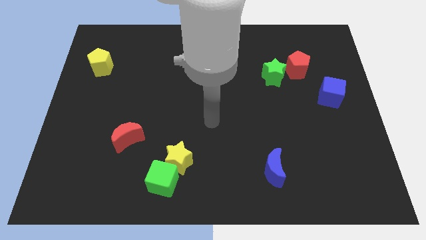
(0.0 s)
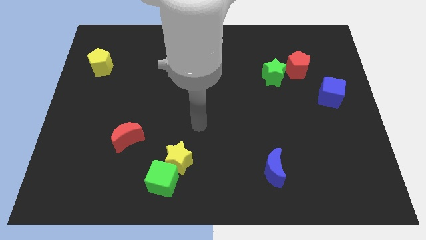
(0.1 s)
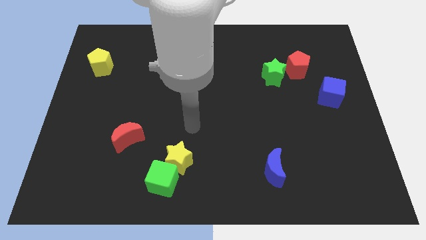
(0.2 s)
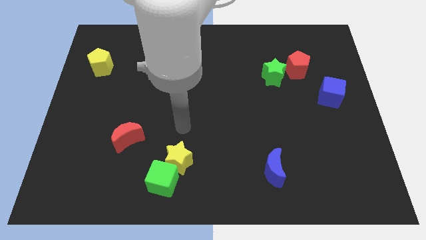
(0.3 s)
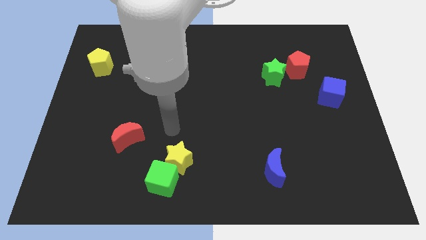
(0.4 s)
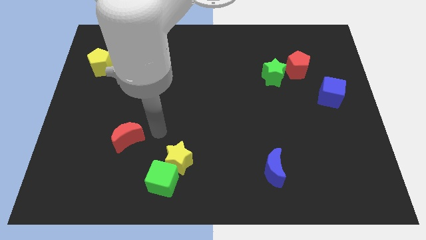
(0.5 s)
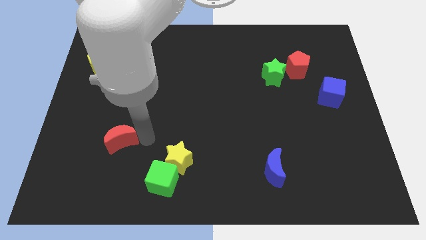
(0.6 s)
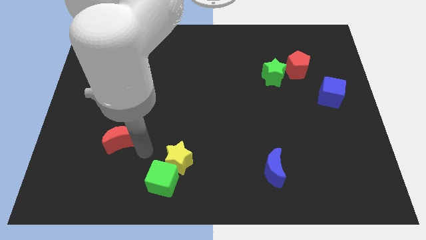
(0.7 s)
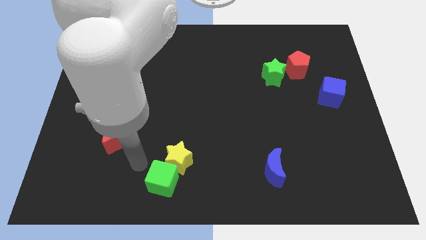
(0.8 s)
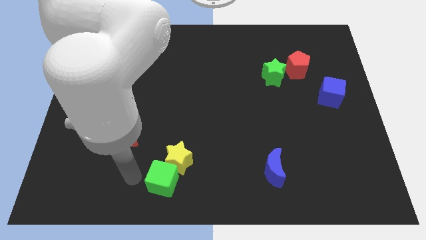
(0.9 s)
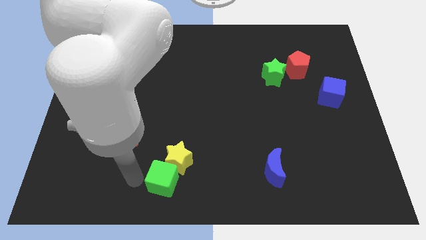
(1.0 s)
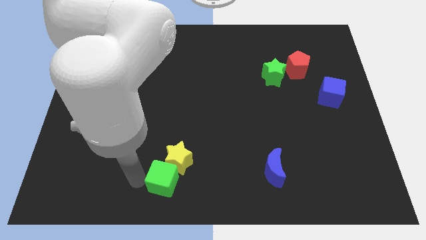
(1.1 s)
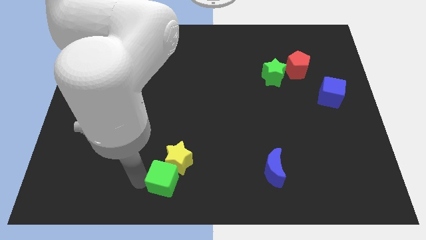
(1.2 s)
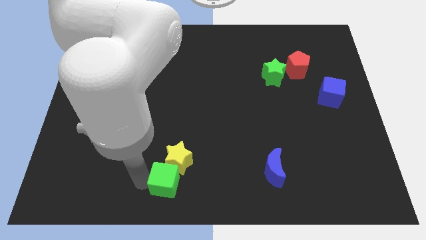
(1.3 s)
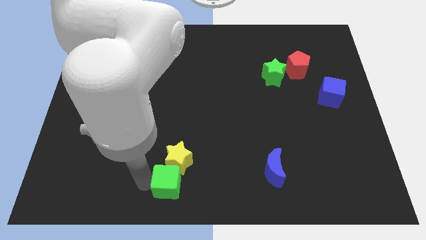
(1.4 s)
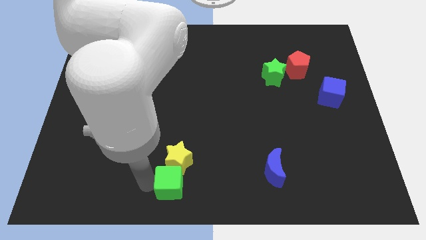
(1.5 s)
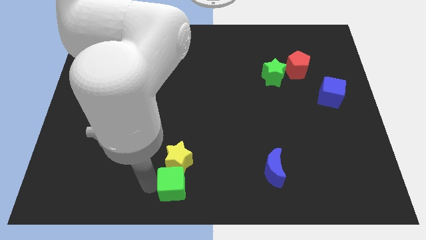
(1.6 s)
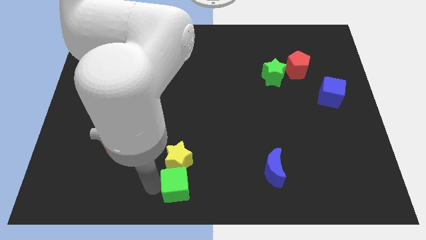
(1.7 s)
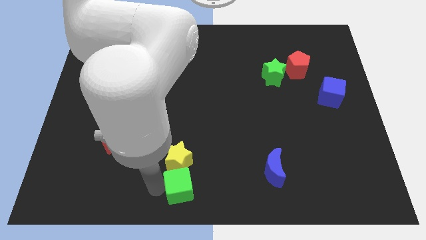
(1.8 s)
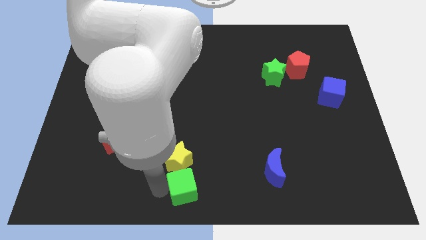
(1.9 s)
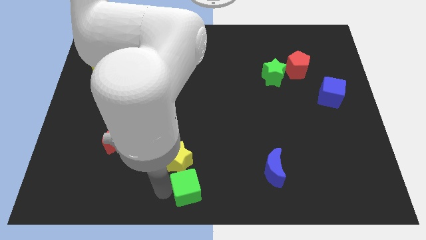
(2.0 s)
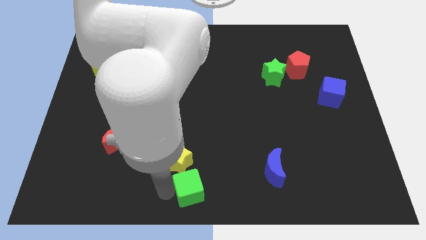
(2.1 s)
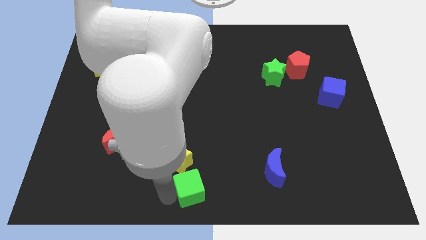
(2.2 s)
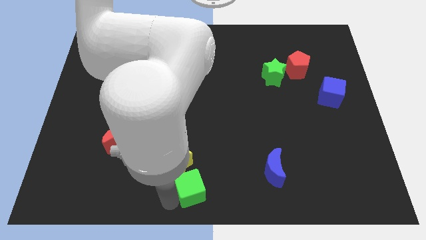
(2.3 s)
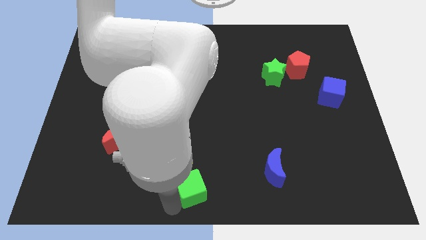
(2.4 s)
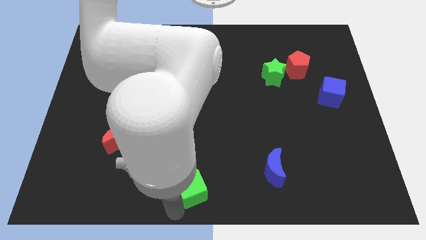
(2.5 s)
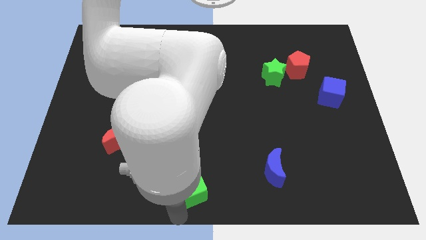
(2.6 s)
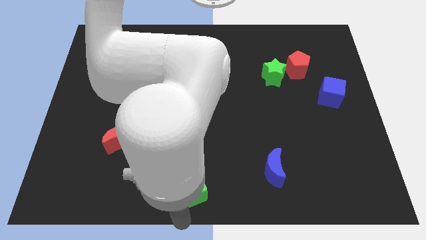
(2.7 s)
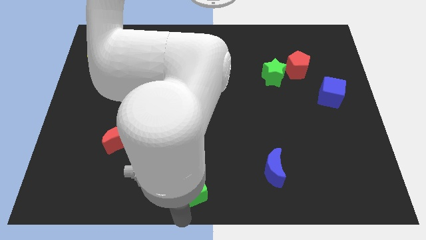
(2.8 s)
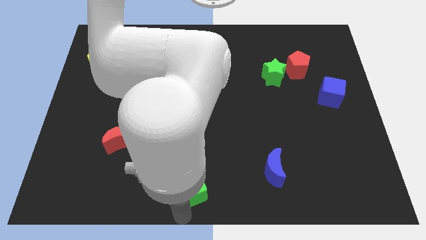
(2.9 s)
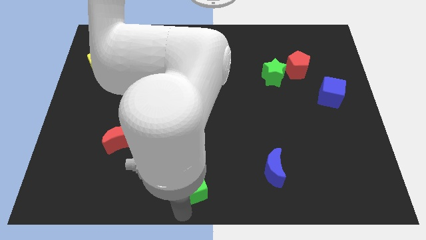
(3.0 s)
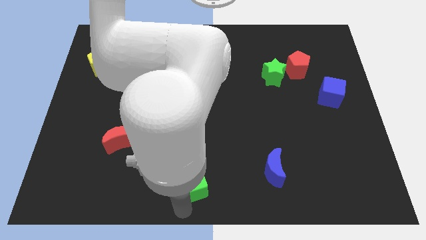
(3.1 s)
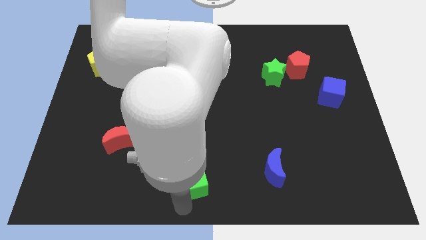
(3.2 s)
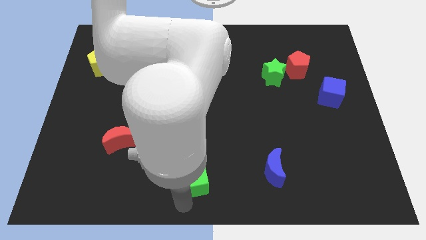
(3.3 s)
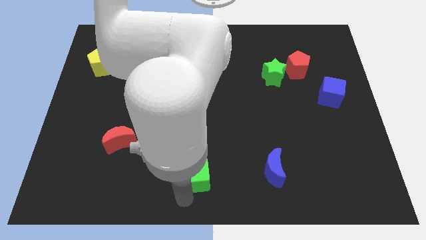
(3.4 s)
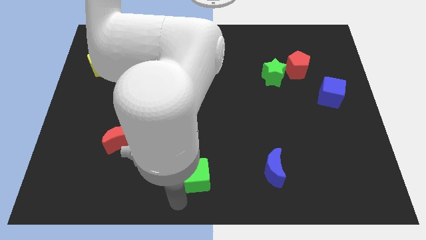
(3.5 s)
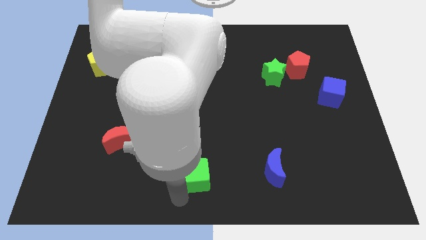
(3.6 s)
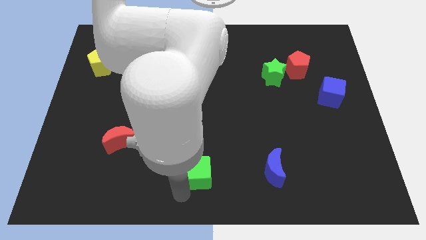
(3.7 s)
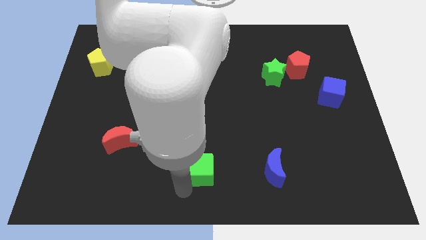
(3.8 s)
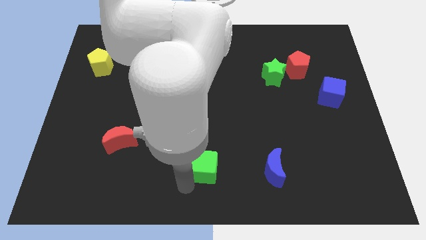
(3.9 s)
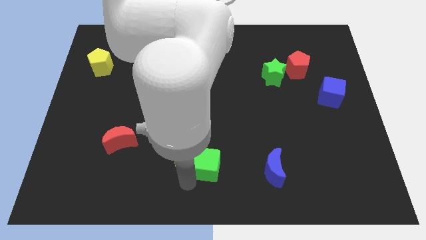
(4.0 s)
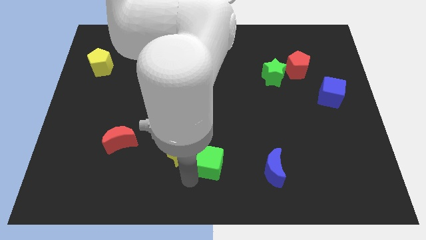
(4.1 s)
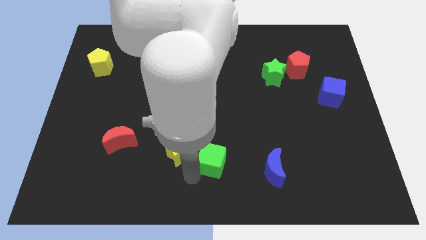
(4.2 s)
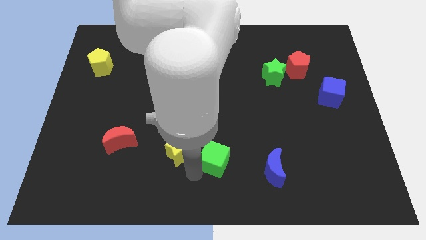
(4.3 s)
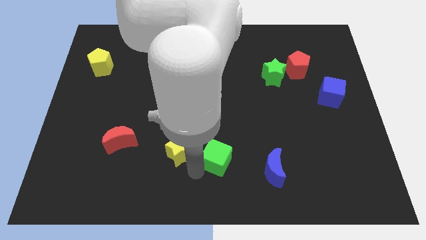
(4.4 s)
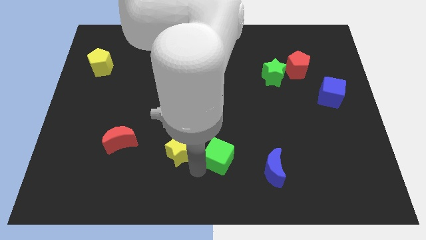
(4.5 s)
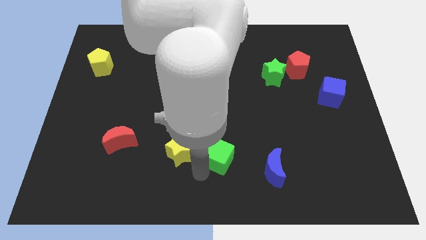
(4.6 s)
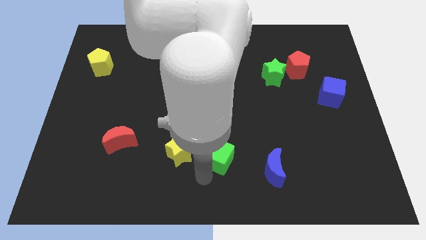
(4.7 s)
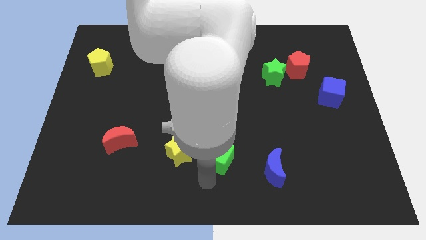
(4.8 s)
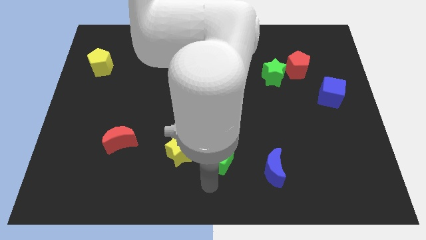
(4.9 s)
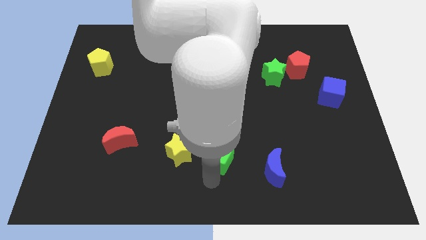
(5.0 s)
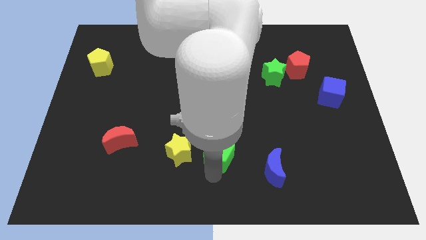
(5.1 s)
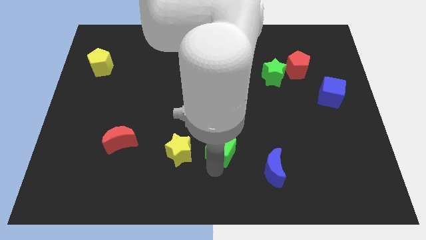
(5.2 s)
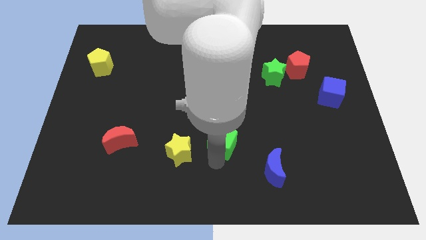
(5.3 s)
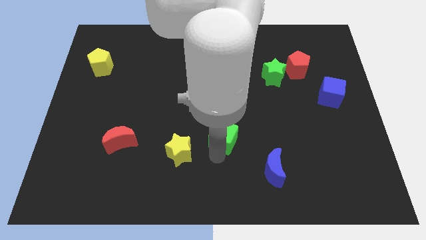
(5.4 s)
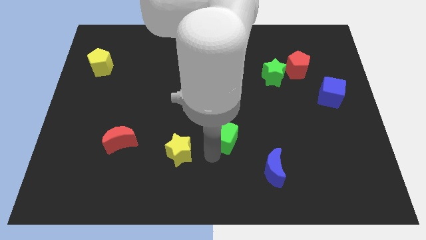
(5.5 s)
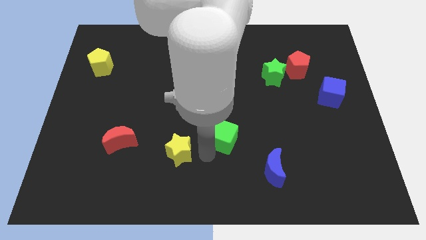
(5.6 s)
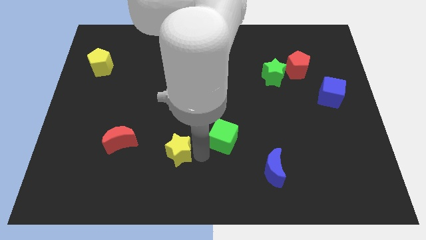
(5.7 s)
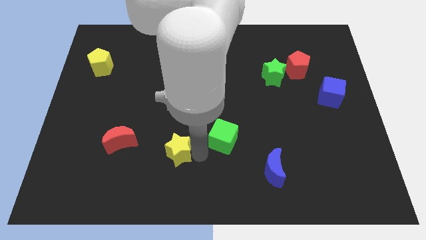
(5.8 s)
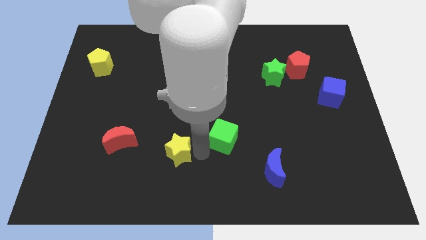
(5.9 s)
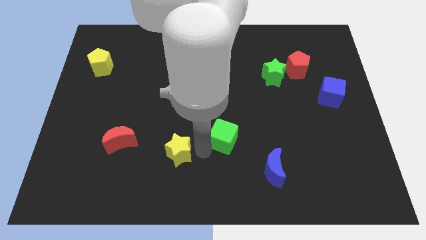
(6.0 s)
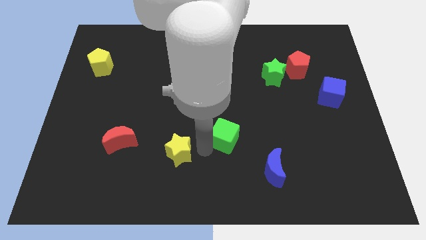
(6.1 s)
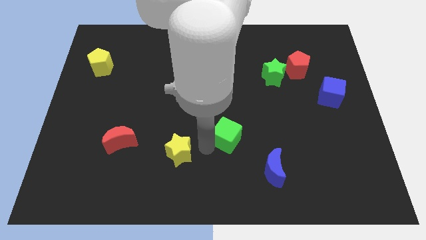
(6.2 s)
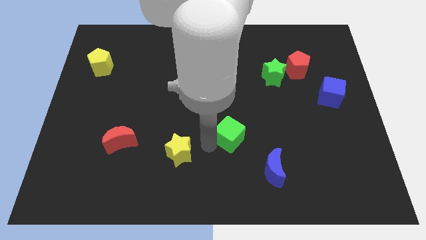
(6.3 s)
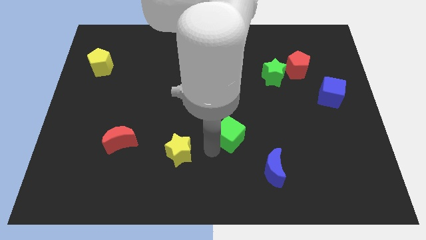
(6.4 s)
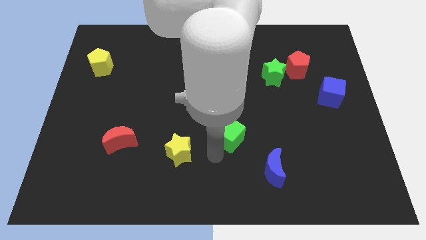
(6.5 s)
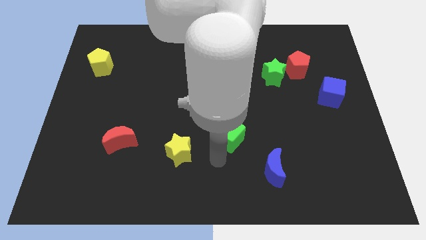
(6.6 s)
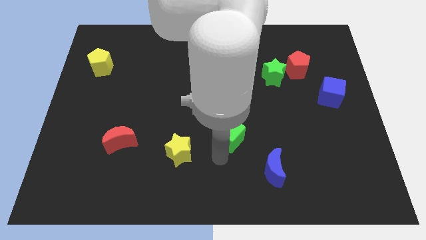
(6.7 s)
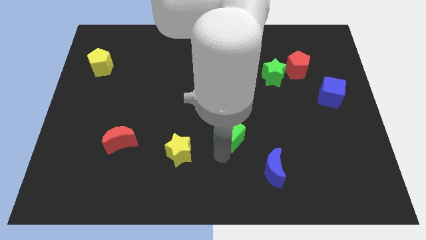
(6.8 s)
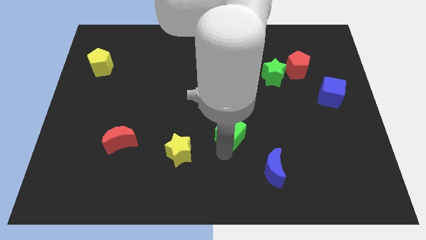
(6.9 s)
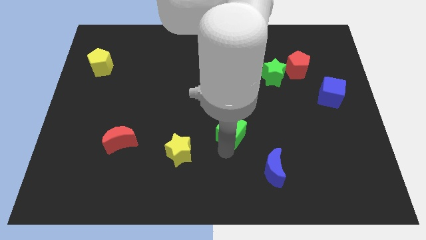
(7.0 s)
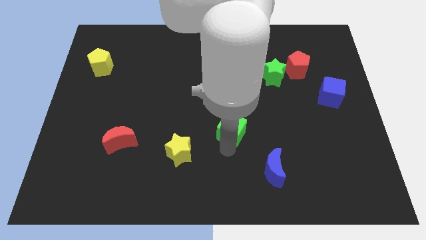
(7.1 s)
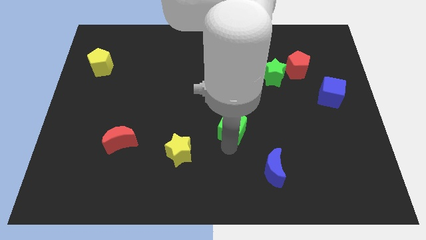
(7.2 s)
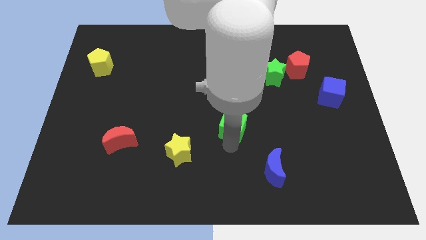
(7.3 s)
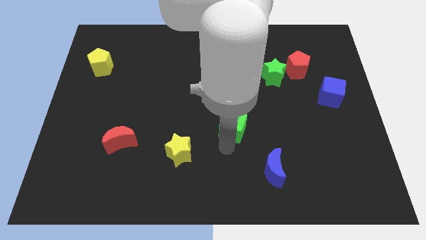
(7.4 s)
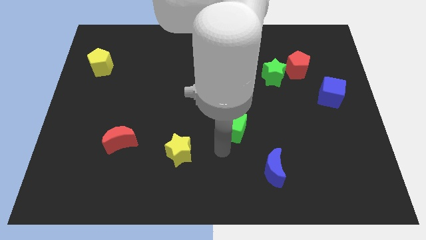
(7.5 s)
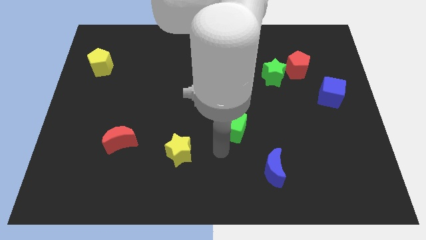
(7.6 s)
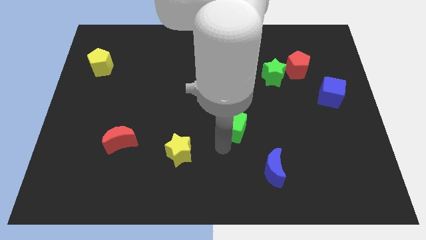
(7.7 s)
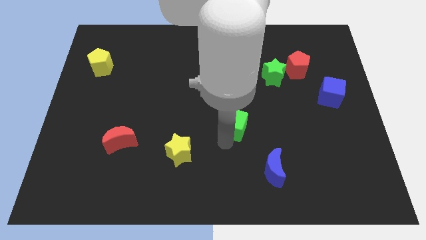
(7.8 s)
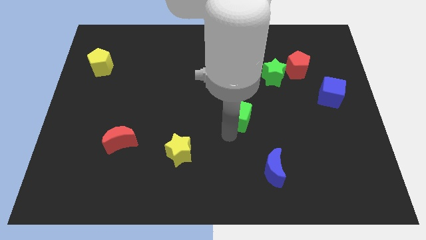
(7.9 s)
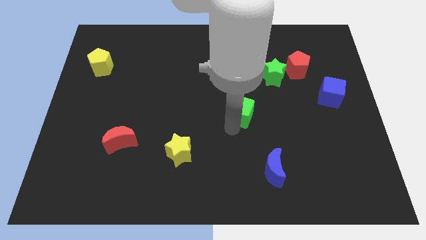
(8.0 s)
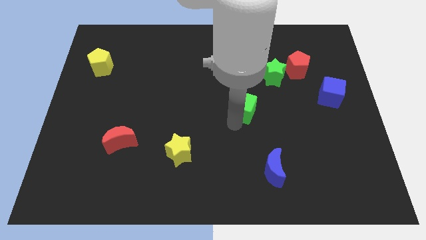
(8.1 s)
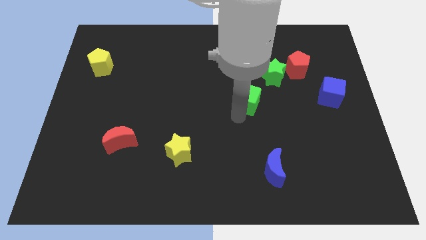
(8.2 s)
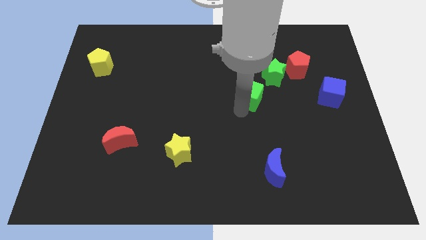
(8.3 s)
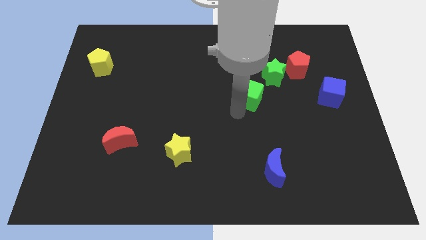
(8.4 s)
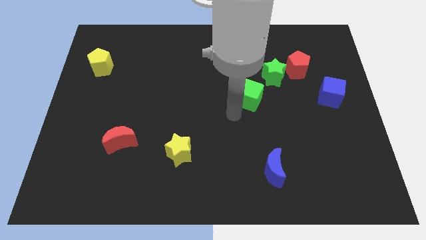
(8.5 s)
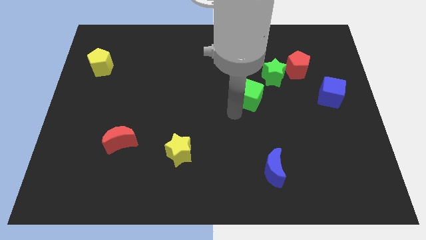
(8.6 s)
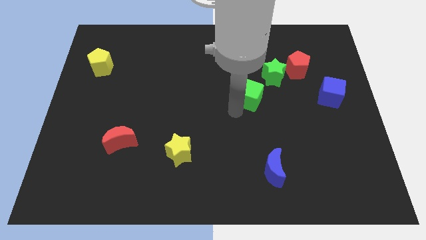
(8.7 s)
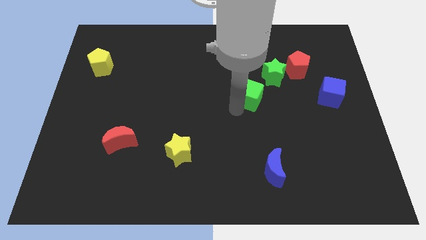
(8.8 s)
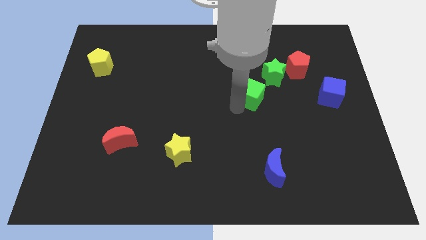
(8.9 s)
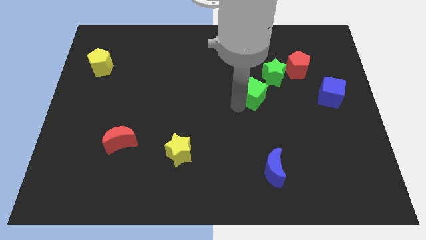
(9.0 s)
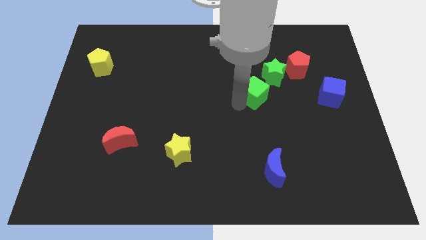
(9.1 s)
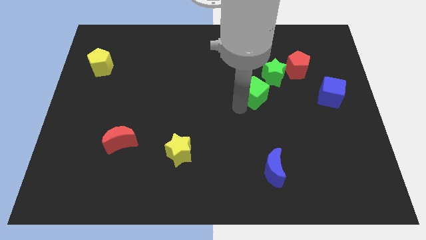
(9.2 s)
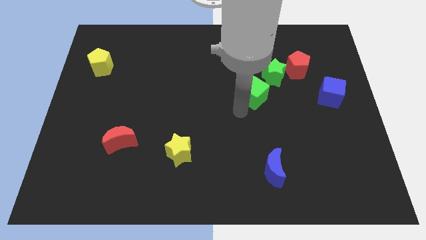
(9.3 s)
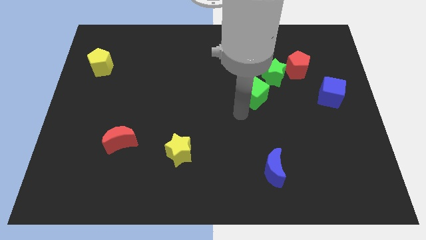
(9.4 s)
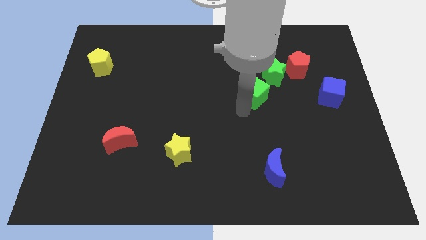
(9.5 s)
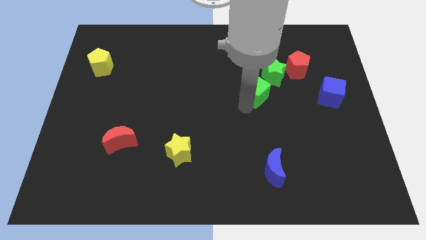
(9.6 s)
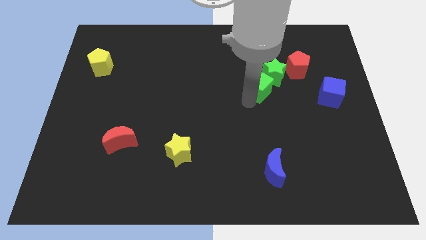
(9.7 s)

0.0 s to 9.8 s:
slide the green cube close to the green star
